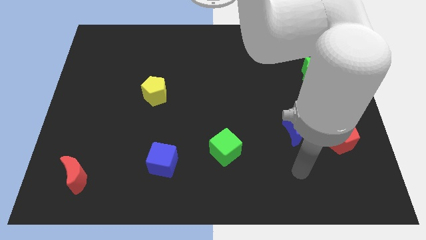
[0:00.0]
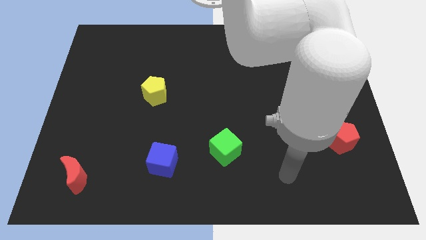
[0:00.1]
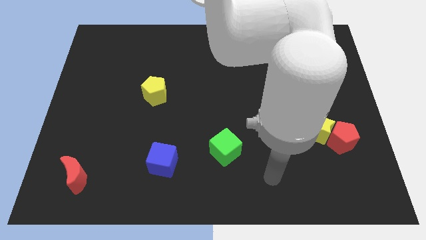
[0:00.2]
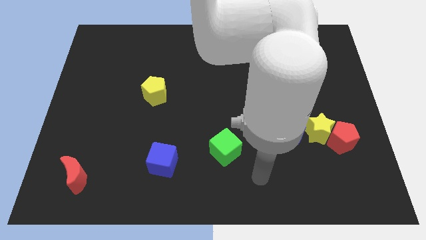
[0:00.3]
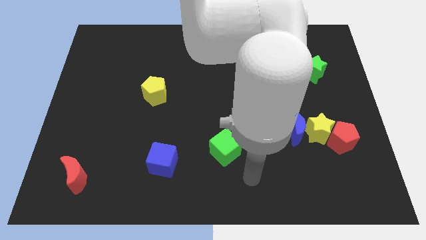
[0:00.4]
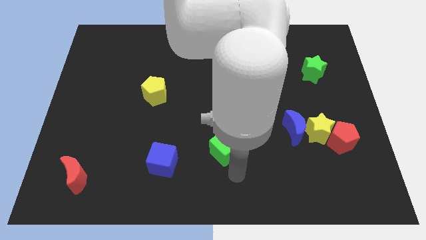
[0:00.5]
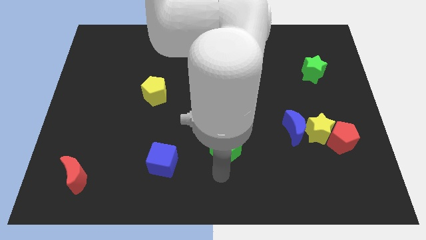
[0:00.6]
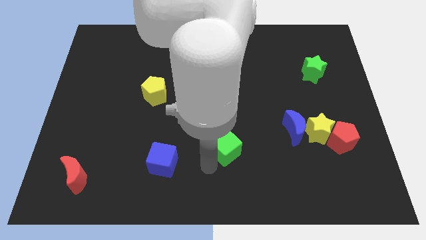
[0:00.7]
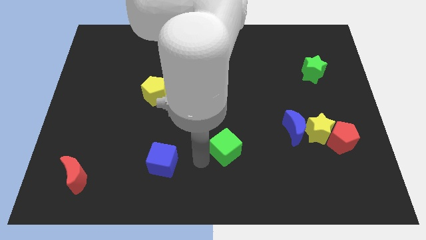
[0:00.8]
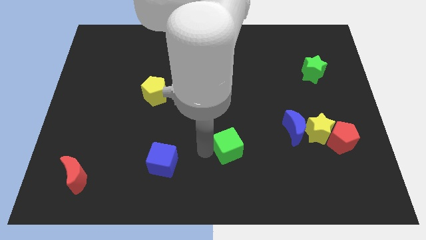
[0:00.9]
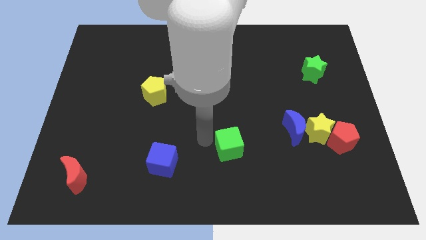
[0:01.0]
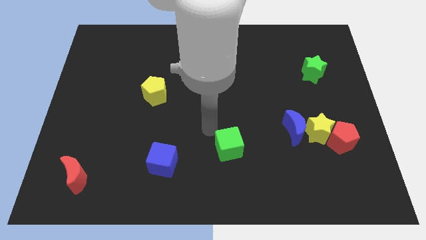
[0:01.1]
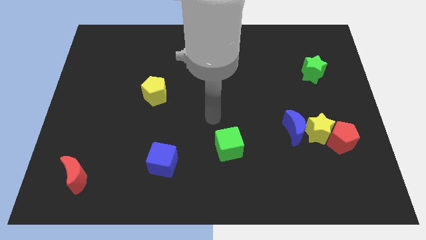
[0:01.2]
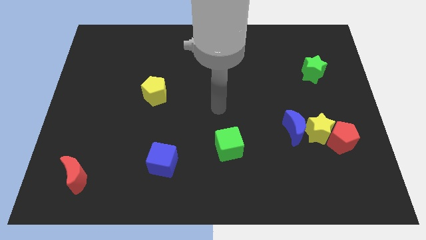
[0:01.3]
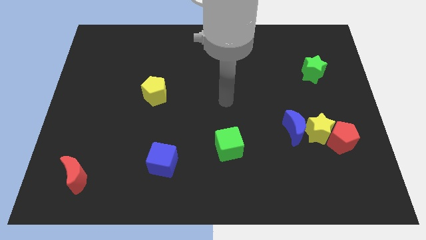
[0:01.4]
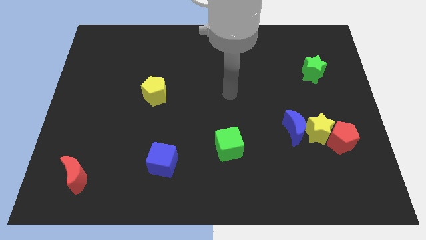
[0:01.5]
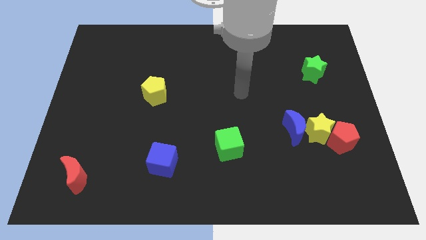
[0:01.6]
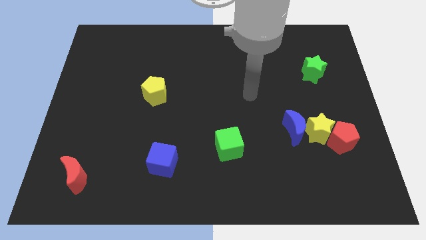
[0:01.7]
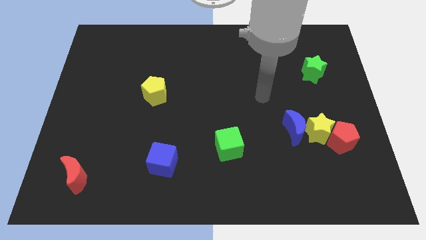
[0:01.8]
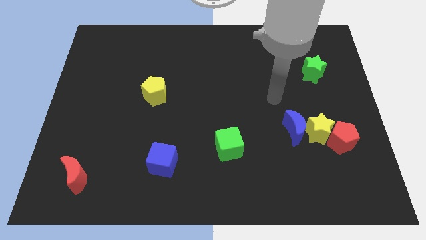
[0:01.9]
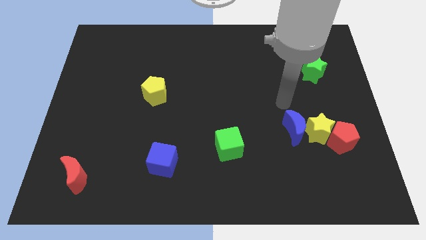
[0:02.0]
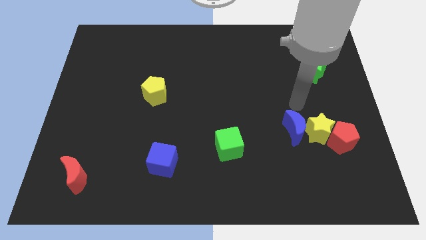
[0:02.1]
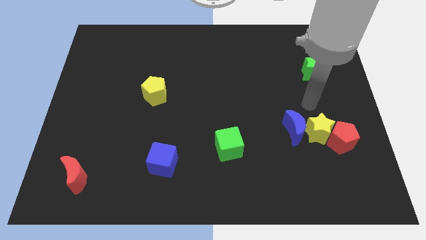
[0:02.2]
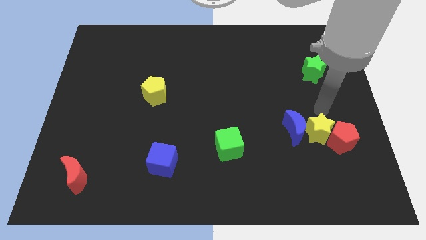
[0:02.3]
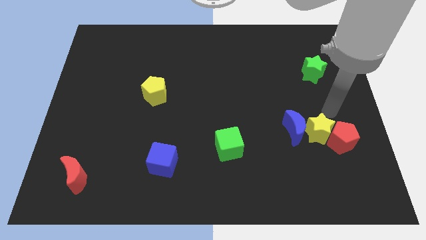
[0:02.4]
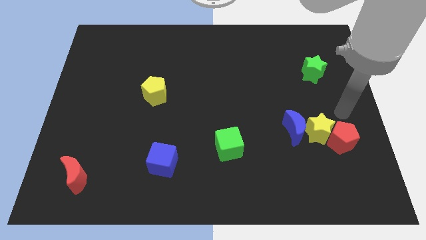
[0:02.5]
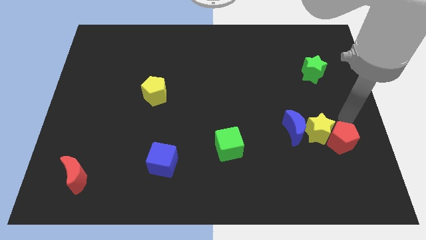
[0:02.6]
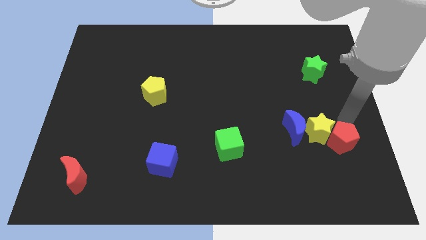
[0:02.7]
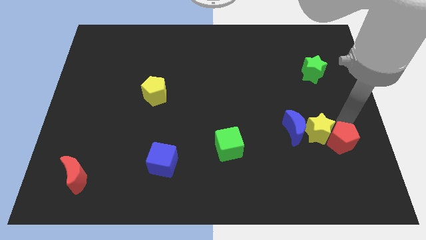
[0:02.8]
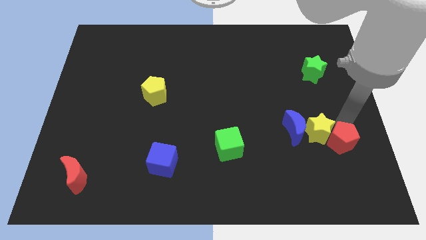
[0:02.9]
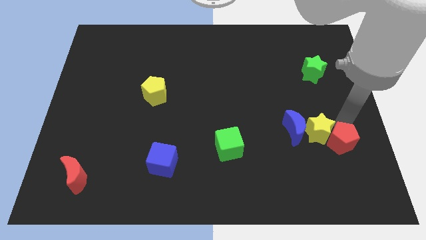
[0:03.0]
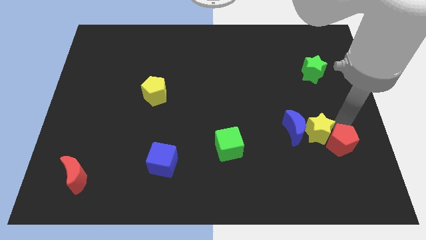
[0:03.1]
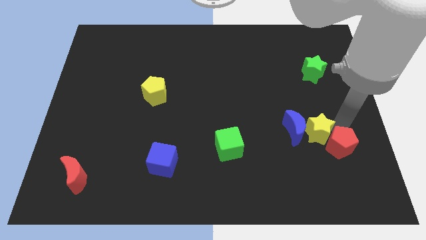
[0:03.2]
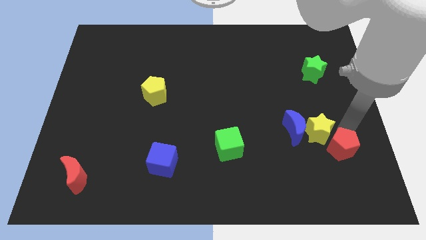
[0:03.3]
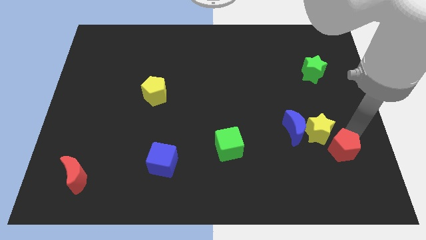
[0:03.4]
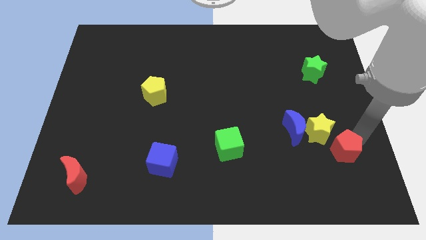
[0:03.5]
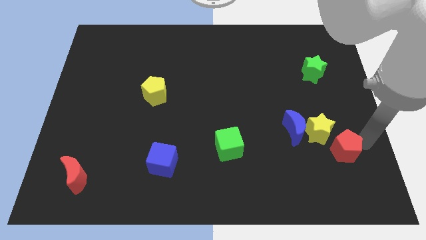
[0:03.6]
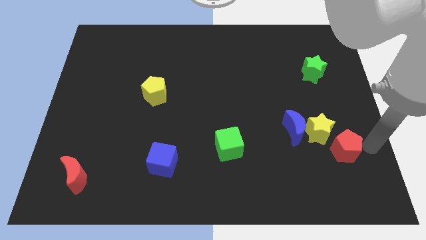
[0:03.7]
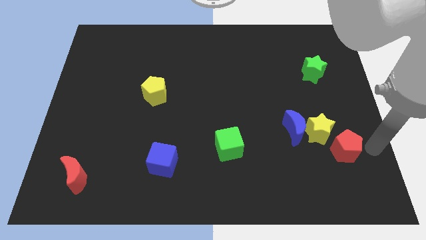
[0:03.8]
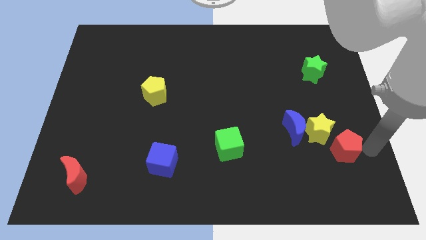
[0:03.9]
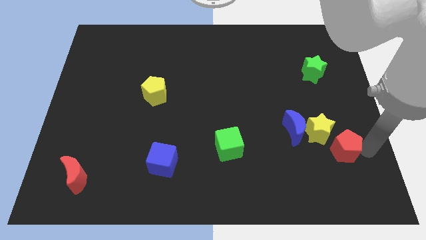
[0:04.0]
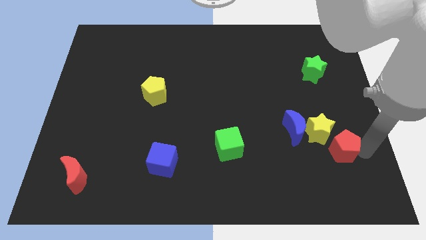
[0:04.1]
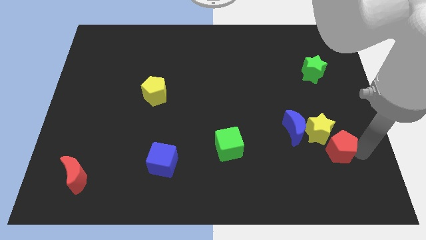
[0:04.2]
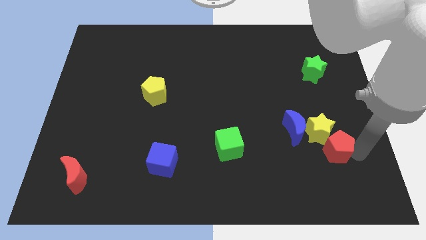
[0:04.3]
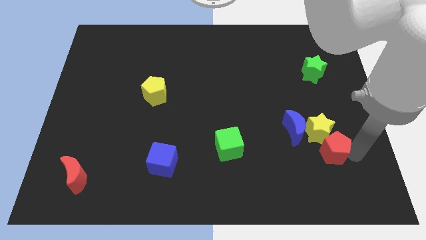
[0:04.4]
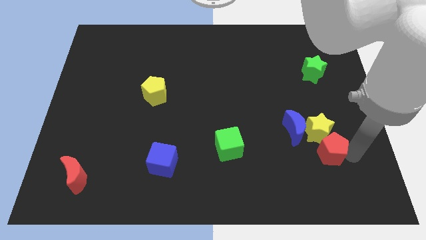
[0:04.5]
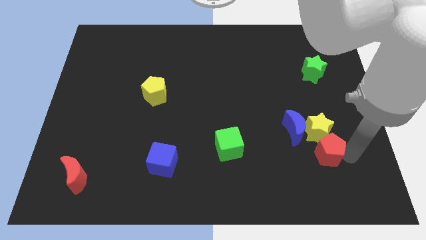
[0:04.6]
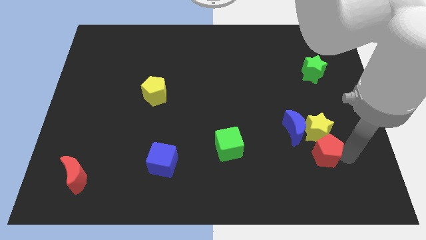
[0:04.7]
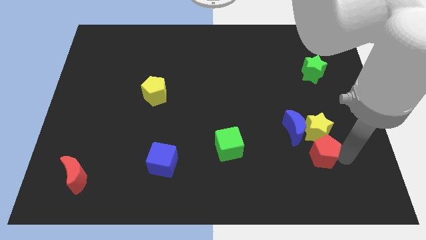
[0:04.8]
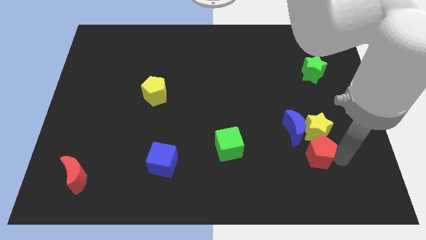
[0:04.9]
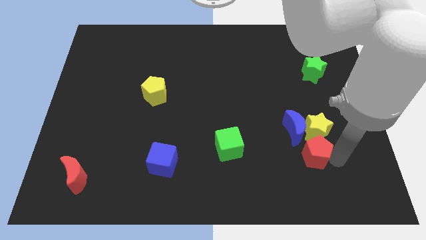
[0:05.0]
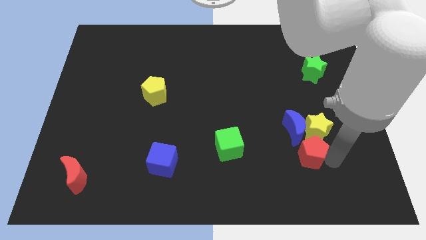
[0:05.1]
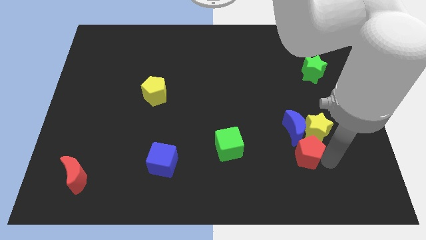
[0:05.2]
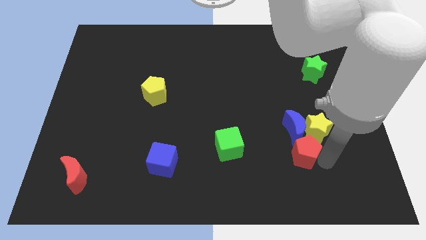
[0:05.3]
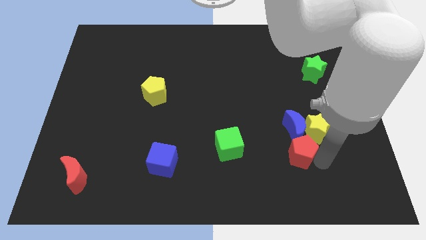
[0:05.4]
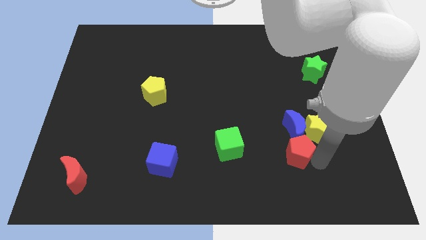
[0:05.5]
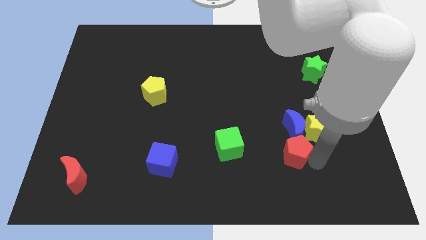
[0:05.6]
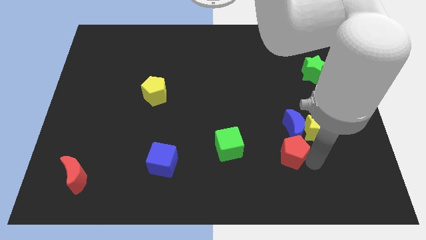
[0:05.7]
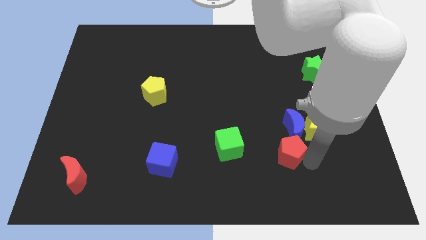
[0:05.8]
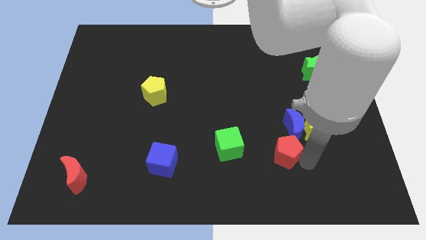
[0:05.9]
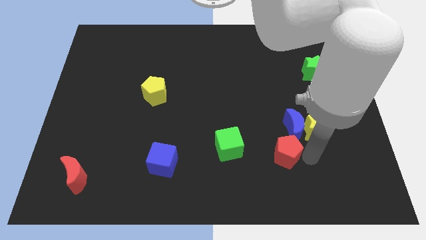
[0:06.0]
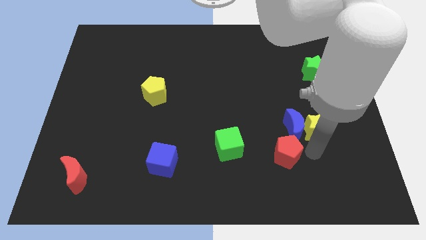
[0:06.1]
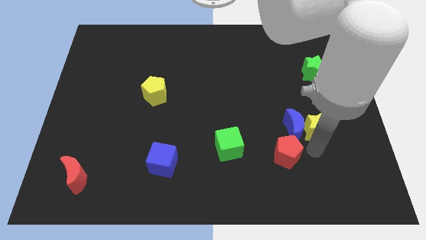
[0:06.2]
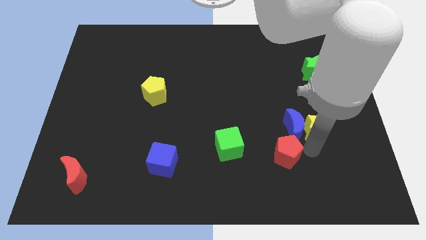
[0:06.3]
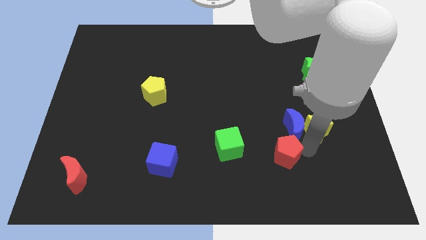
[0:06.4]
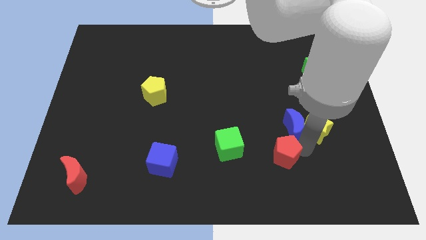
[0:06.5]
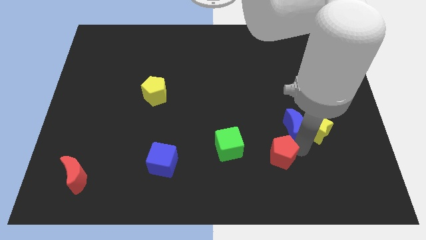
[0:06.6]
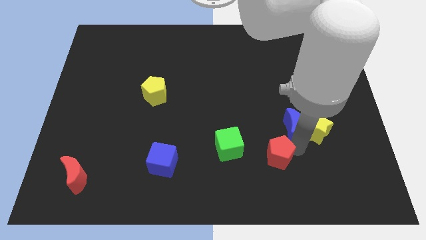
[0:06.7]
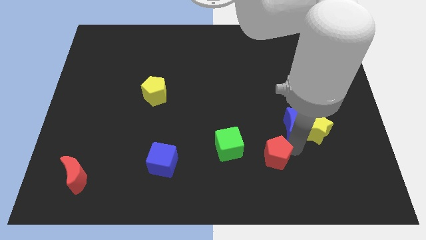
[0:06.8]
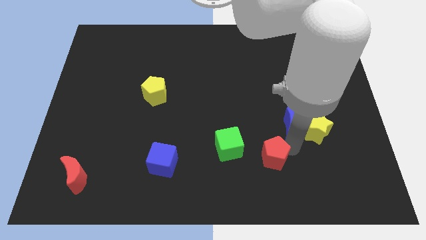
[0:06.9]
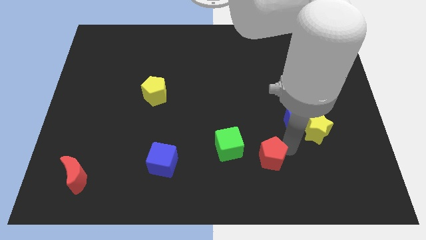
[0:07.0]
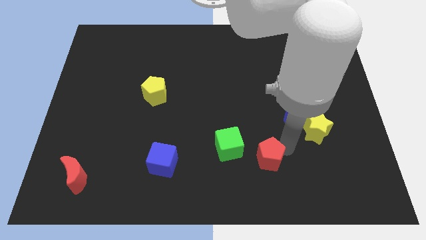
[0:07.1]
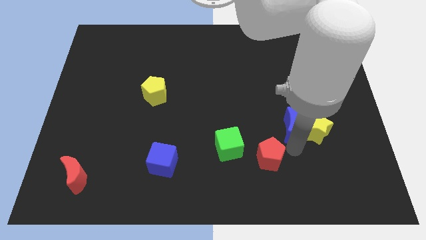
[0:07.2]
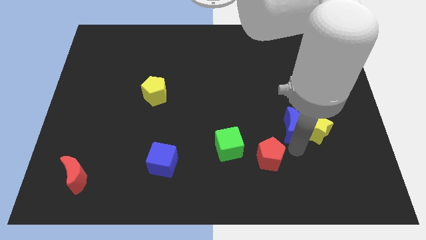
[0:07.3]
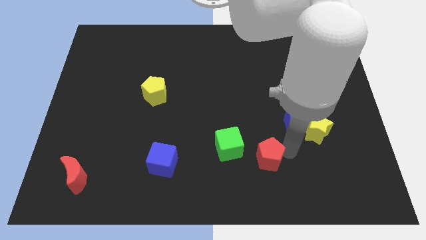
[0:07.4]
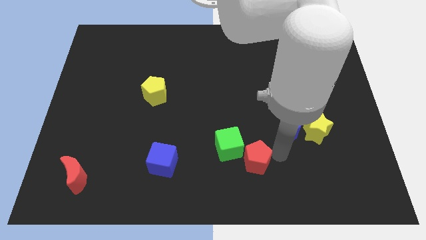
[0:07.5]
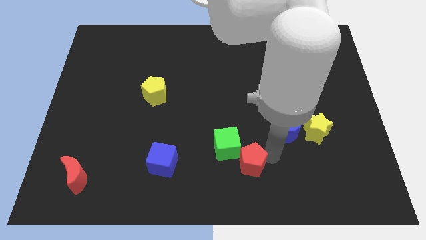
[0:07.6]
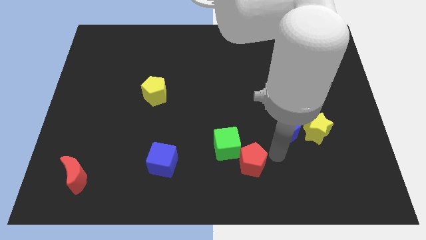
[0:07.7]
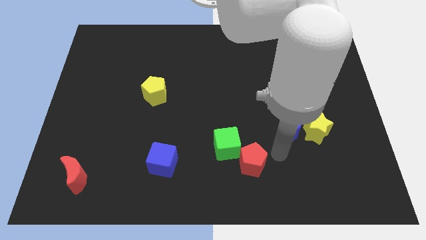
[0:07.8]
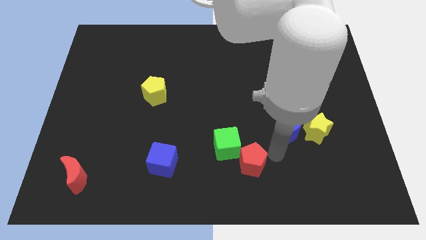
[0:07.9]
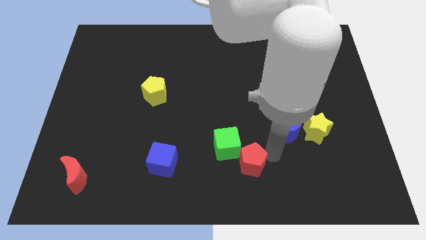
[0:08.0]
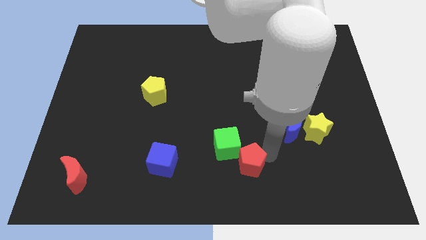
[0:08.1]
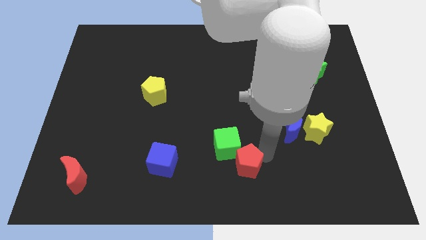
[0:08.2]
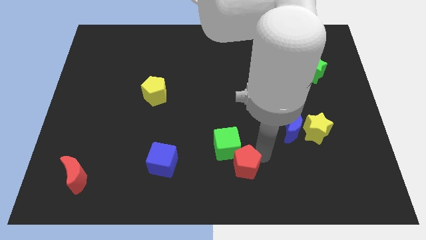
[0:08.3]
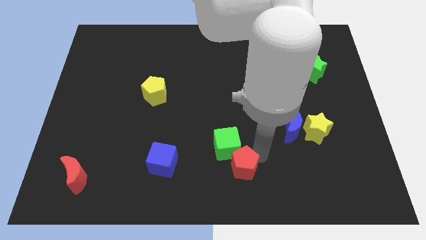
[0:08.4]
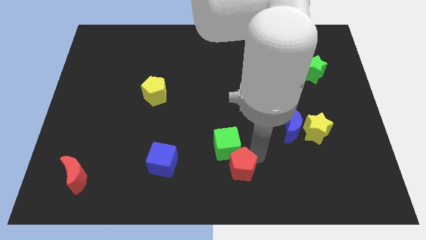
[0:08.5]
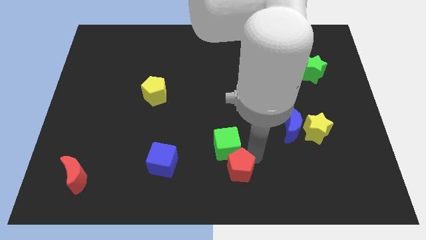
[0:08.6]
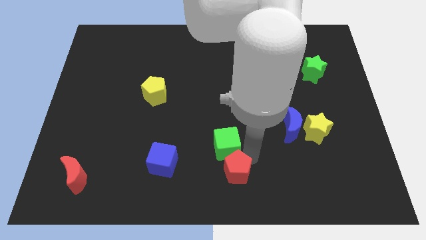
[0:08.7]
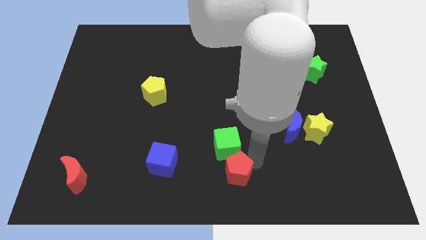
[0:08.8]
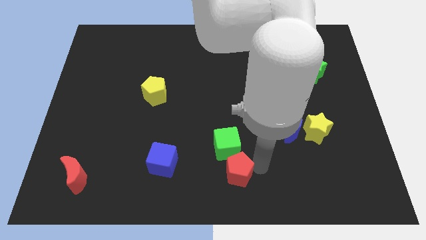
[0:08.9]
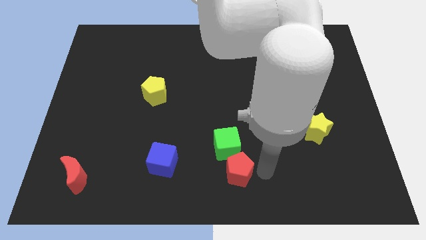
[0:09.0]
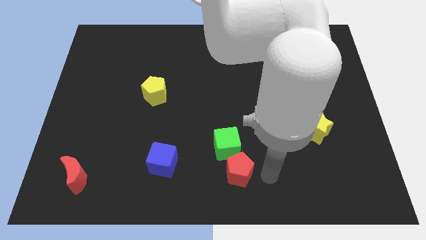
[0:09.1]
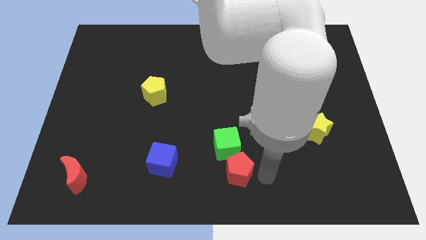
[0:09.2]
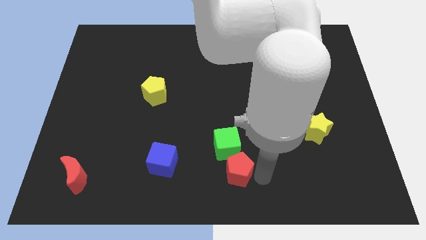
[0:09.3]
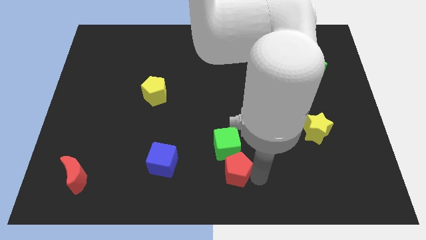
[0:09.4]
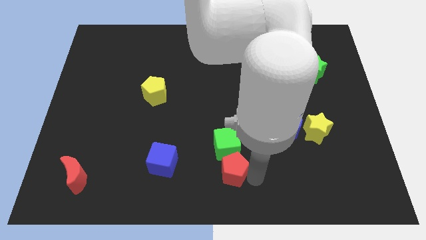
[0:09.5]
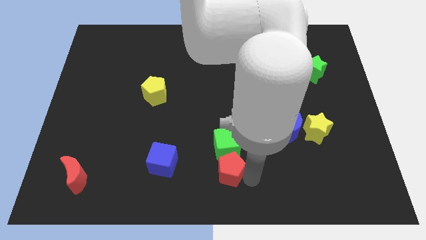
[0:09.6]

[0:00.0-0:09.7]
slide the red pentagon to the bottom left side of the green cube
